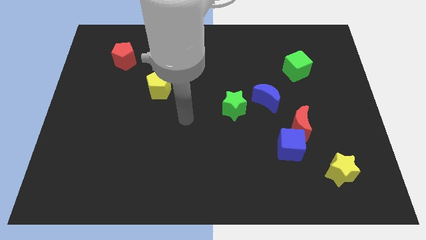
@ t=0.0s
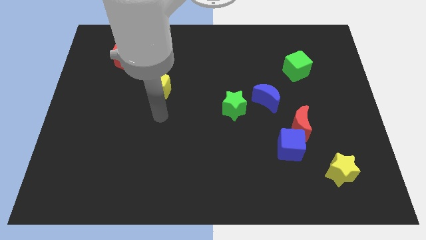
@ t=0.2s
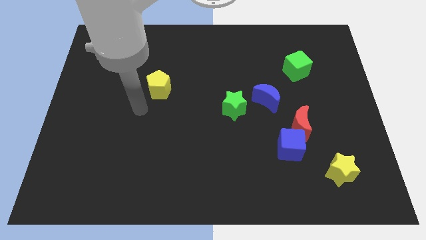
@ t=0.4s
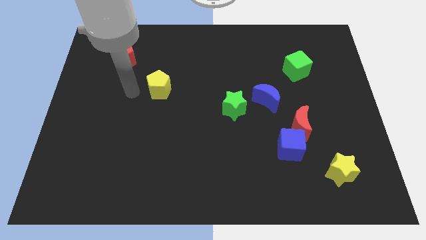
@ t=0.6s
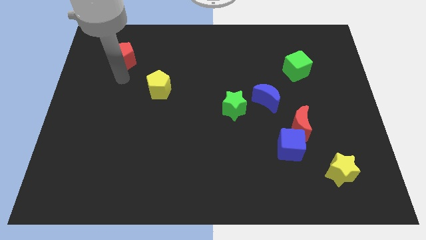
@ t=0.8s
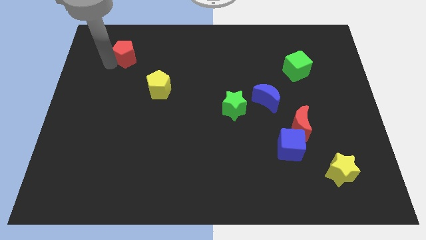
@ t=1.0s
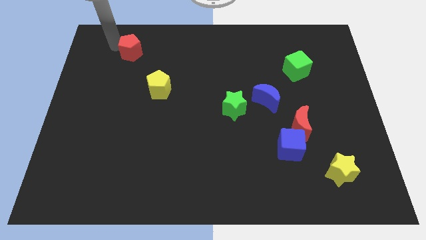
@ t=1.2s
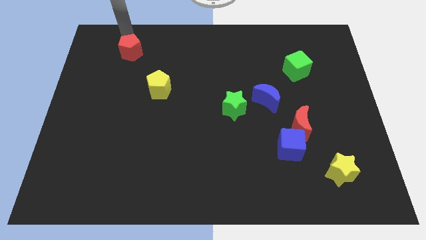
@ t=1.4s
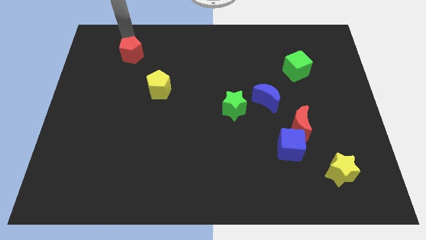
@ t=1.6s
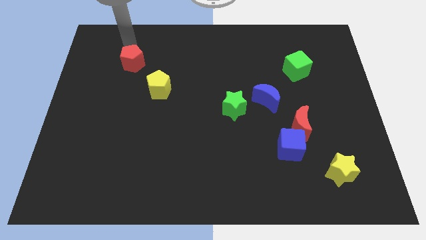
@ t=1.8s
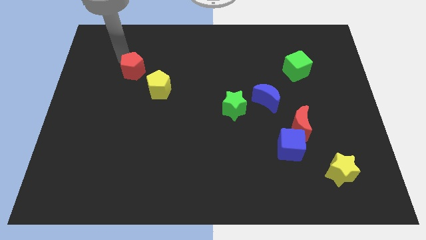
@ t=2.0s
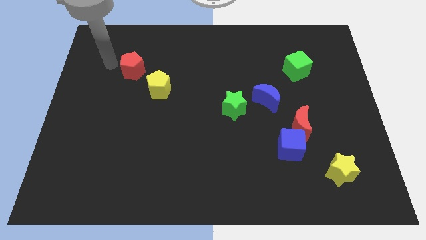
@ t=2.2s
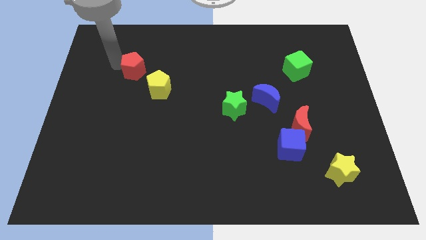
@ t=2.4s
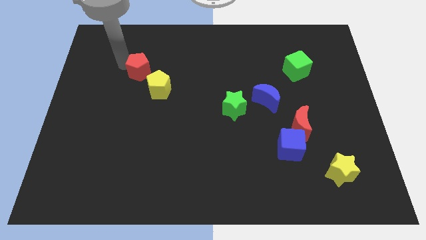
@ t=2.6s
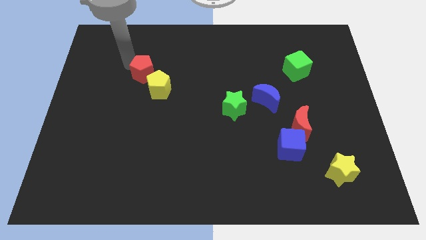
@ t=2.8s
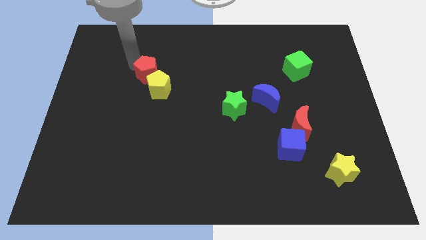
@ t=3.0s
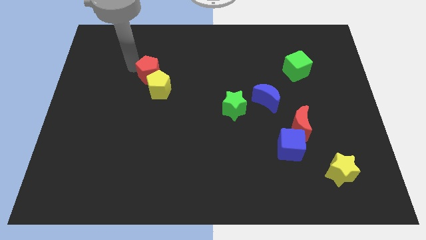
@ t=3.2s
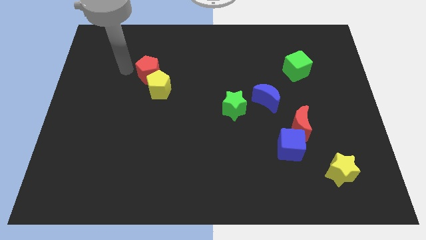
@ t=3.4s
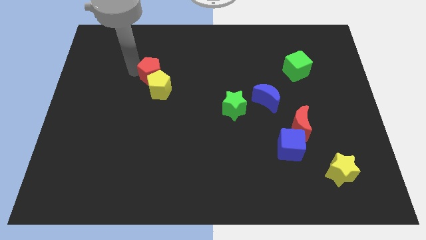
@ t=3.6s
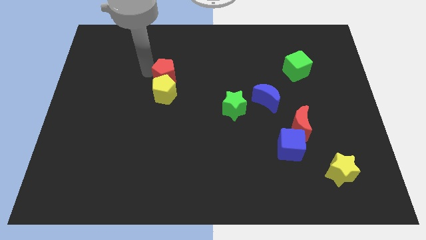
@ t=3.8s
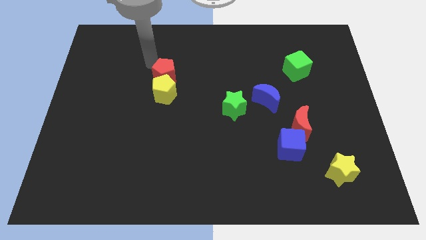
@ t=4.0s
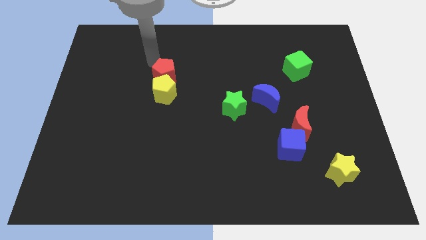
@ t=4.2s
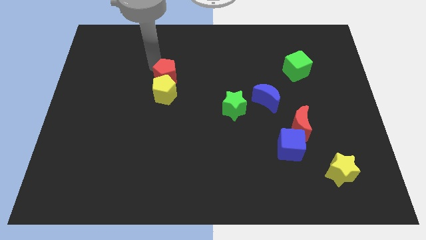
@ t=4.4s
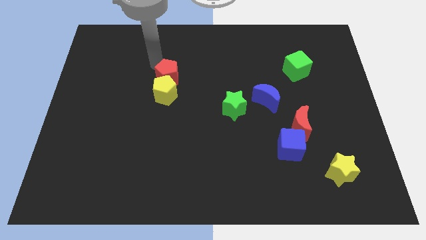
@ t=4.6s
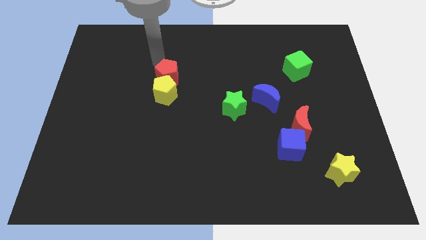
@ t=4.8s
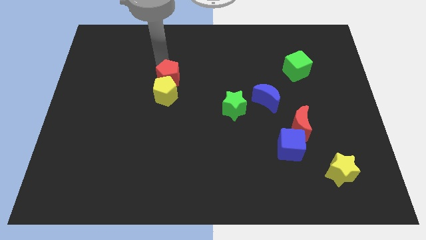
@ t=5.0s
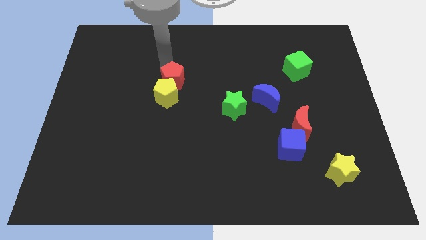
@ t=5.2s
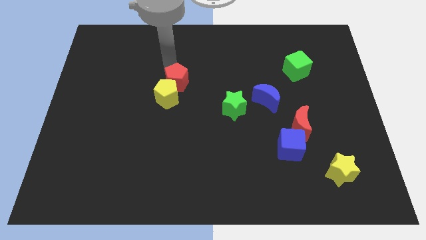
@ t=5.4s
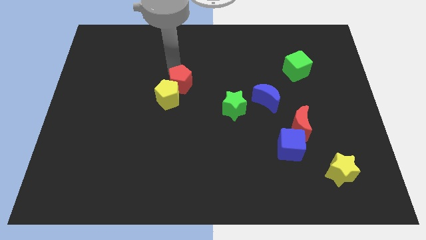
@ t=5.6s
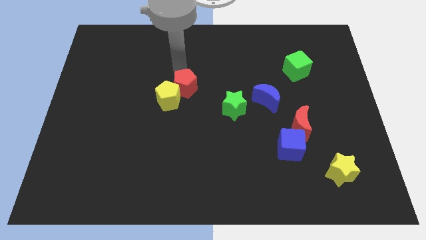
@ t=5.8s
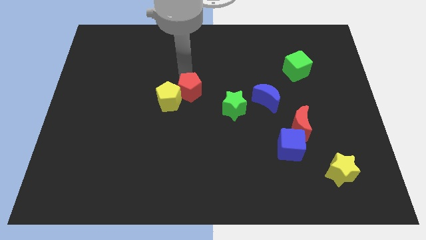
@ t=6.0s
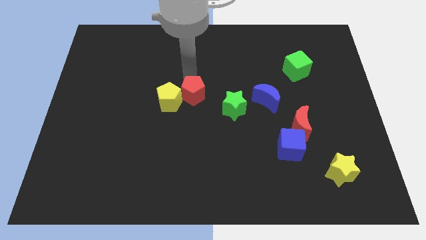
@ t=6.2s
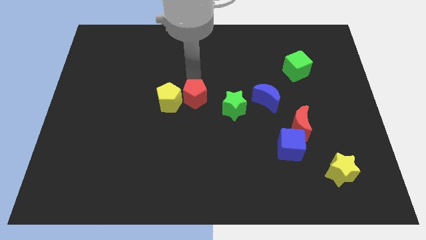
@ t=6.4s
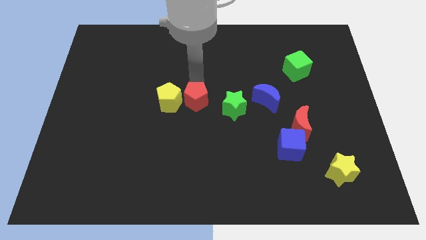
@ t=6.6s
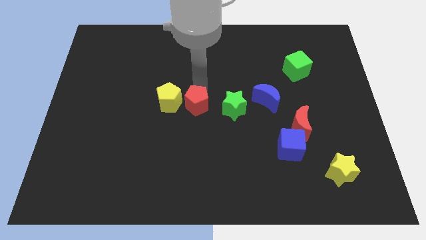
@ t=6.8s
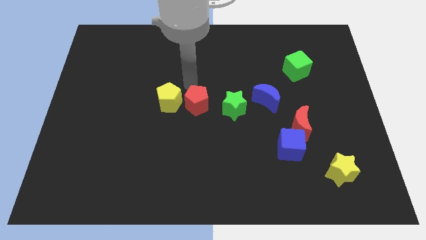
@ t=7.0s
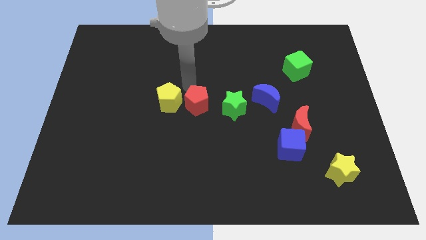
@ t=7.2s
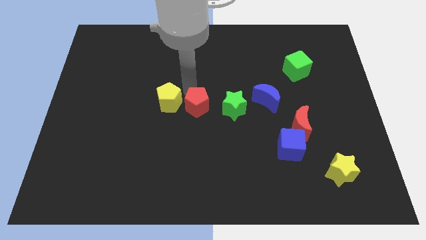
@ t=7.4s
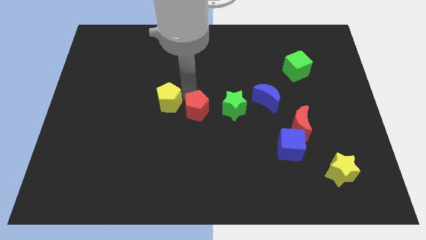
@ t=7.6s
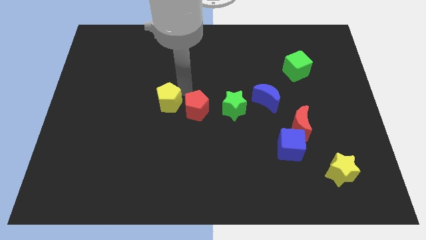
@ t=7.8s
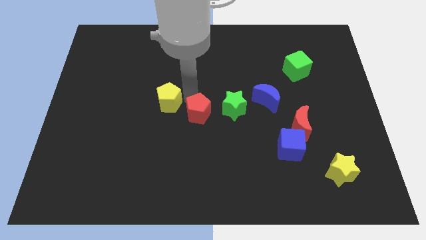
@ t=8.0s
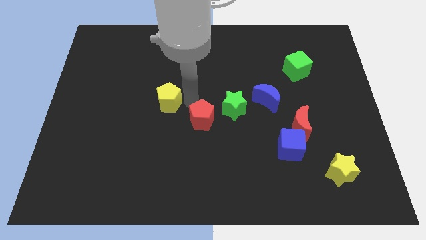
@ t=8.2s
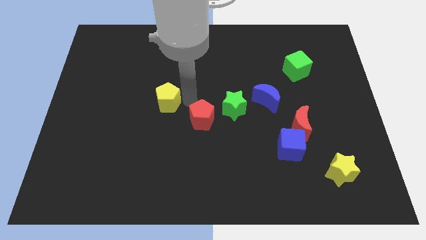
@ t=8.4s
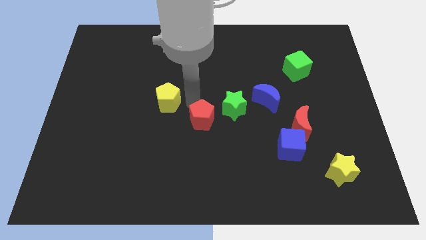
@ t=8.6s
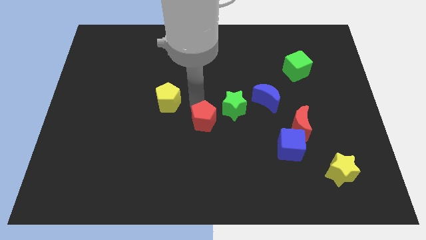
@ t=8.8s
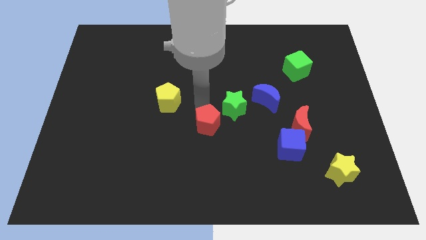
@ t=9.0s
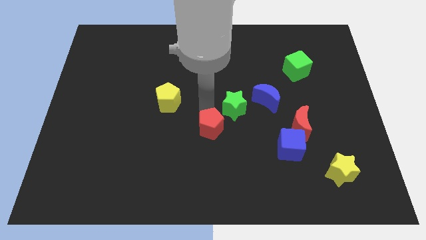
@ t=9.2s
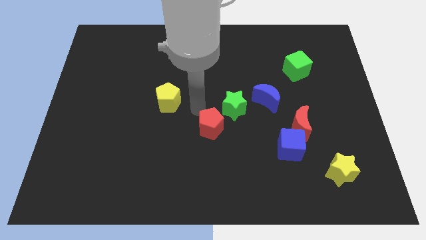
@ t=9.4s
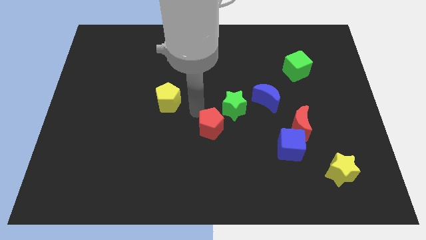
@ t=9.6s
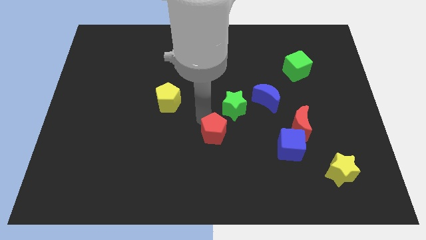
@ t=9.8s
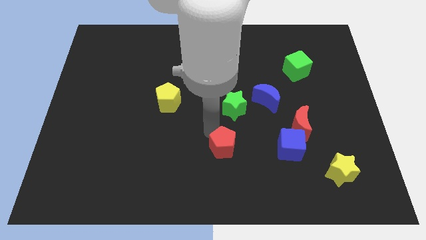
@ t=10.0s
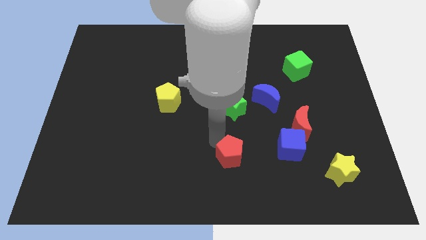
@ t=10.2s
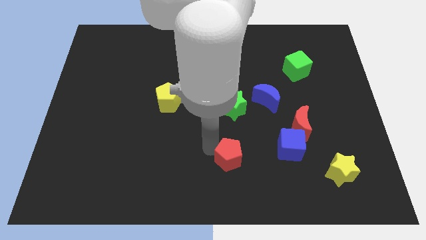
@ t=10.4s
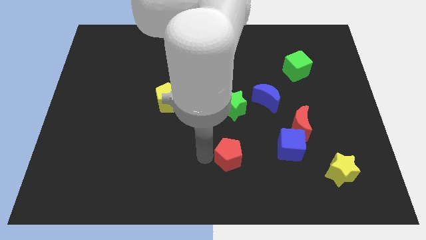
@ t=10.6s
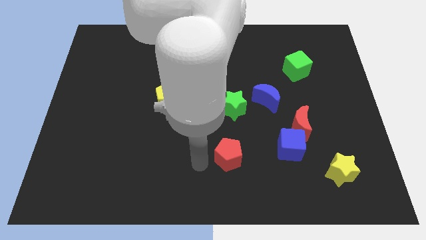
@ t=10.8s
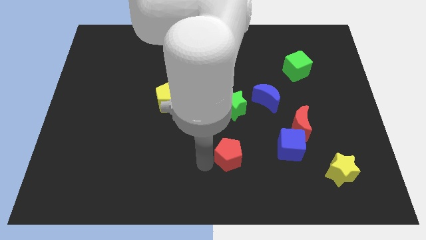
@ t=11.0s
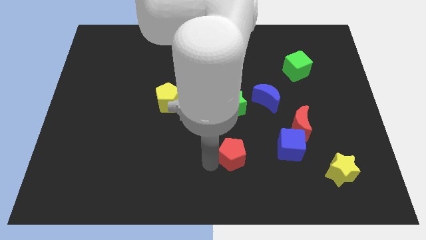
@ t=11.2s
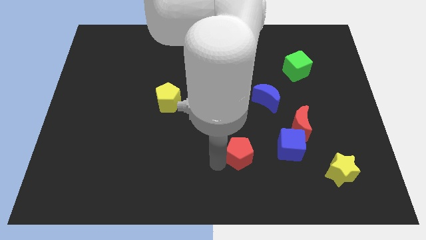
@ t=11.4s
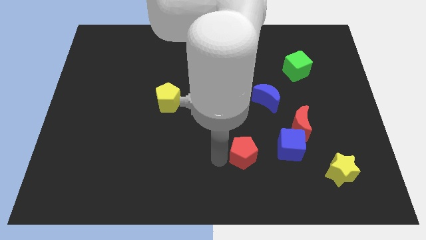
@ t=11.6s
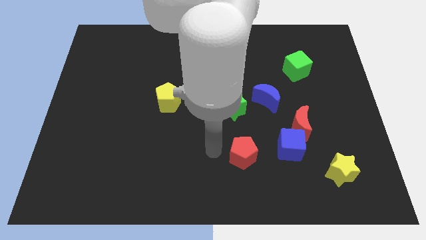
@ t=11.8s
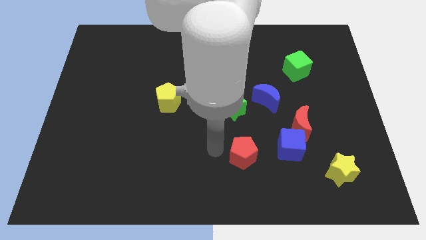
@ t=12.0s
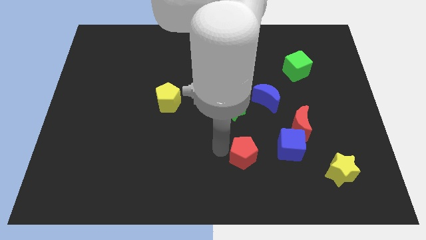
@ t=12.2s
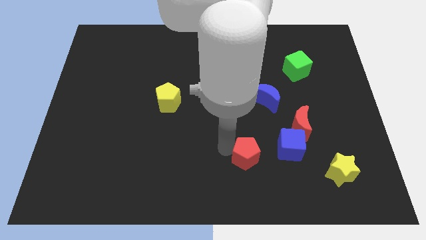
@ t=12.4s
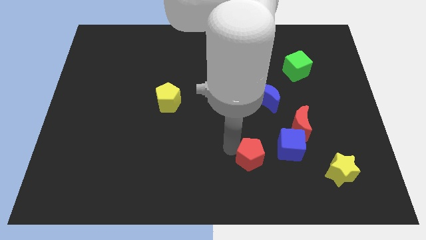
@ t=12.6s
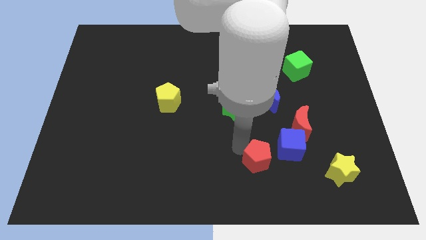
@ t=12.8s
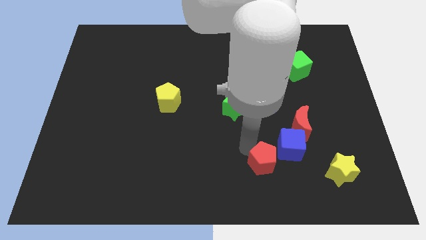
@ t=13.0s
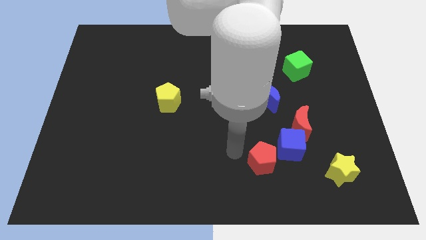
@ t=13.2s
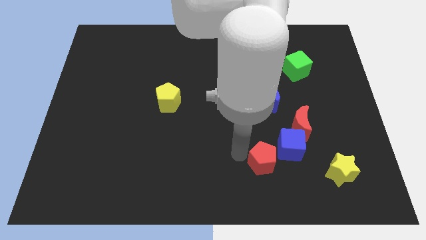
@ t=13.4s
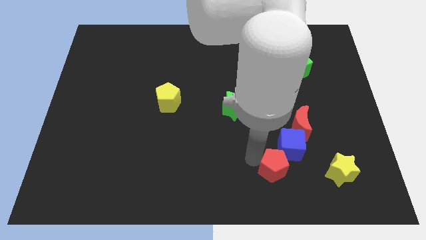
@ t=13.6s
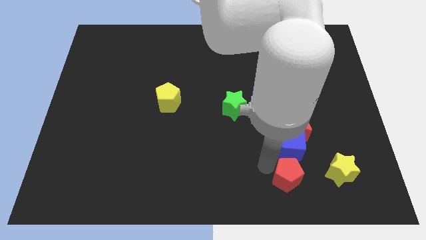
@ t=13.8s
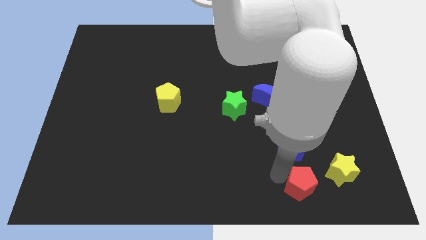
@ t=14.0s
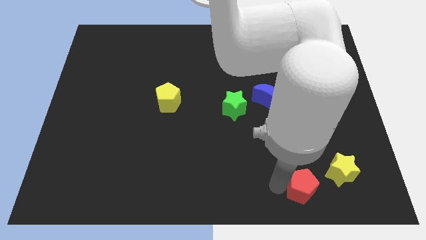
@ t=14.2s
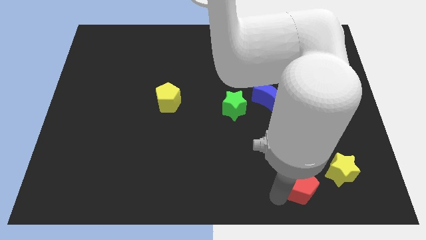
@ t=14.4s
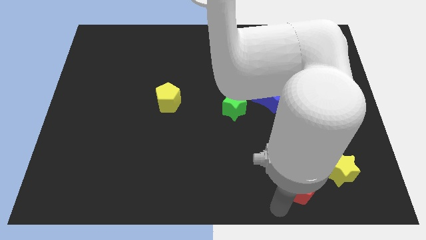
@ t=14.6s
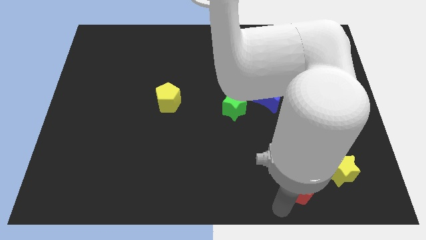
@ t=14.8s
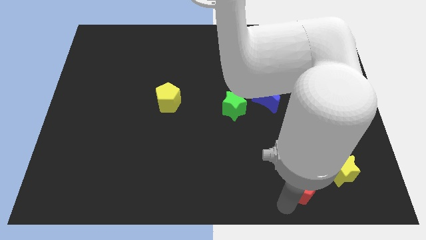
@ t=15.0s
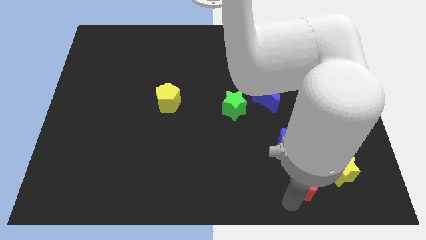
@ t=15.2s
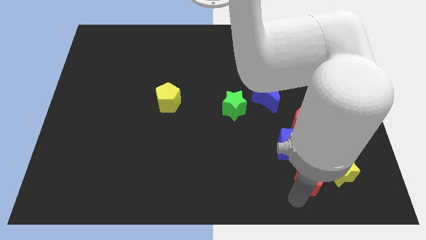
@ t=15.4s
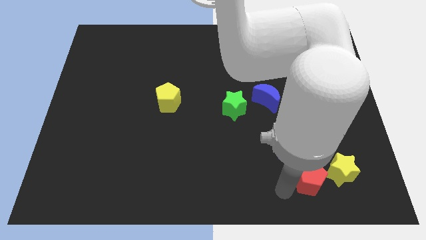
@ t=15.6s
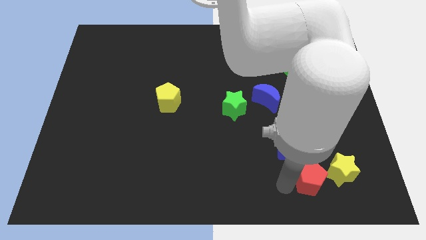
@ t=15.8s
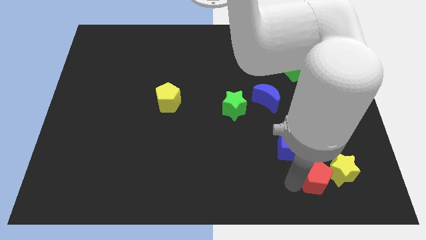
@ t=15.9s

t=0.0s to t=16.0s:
push the red pentagon next to the yellow star
